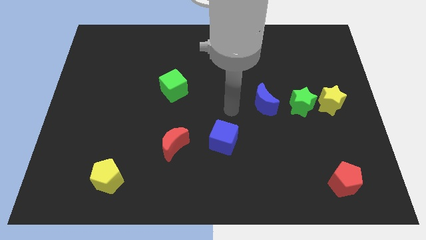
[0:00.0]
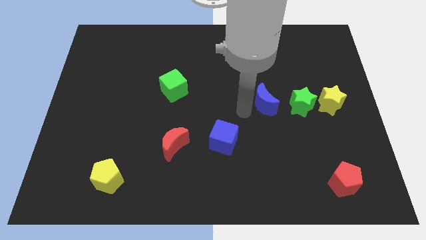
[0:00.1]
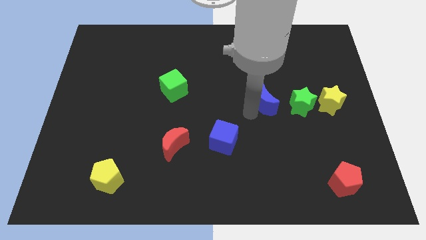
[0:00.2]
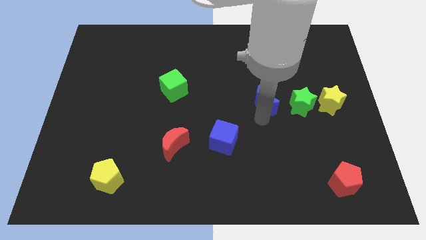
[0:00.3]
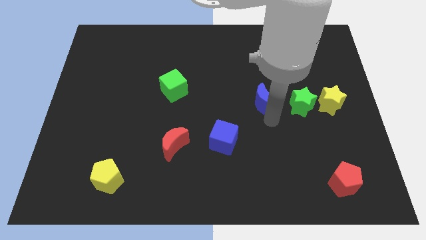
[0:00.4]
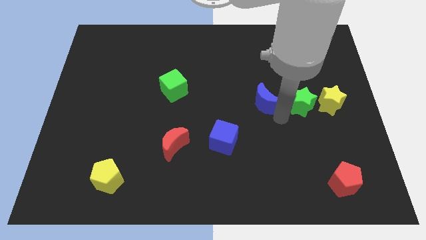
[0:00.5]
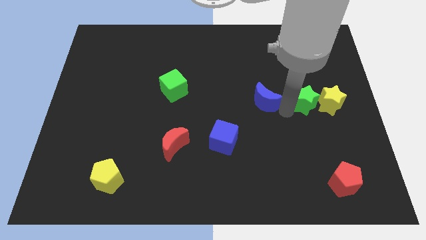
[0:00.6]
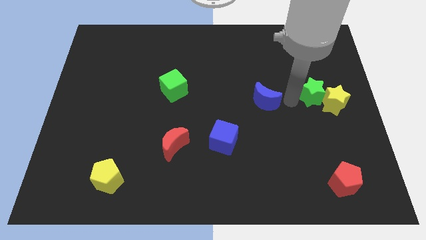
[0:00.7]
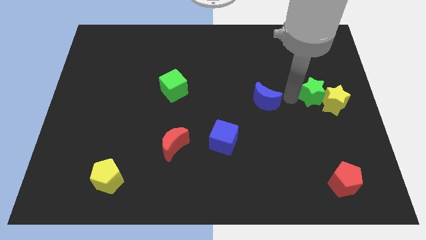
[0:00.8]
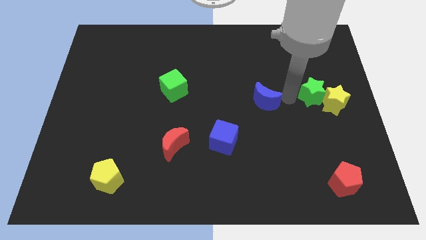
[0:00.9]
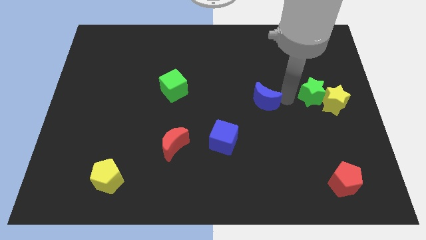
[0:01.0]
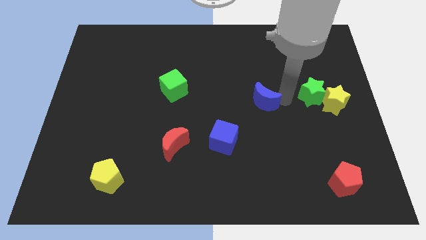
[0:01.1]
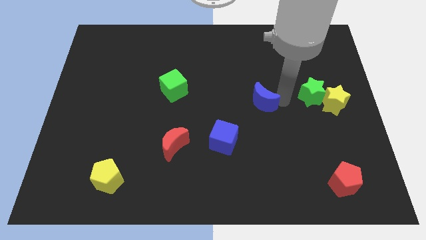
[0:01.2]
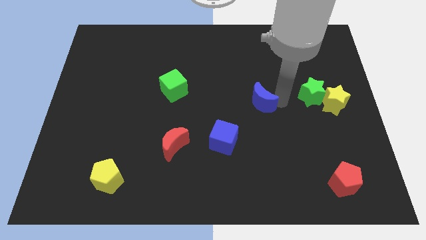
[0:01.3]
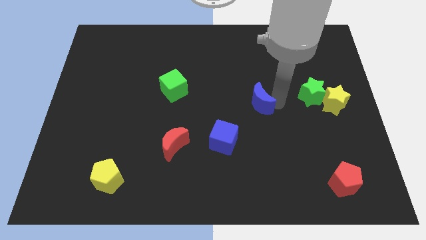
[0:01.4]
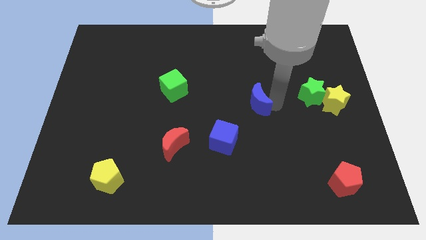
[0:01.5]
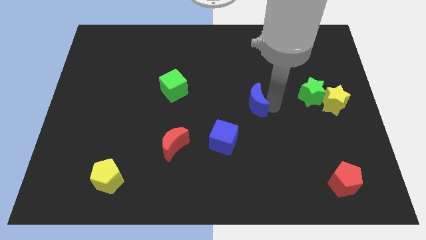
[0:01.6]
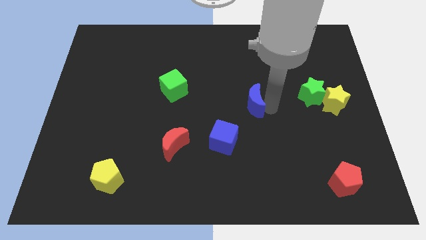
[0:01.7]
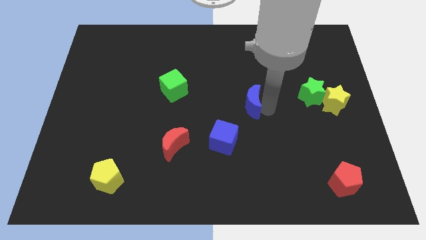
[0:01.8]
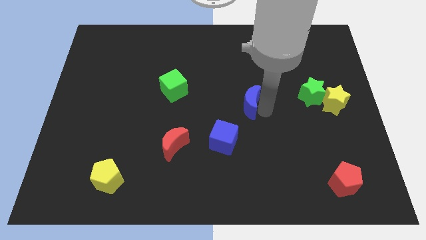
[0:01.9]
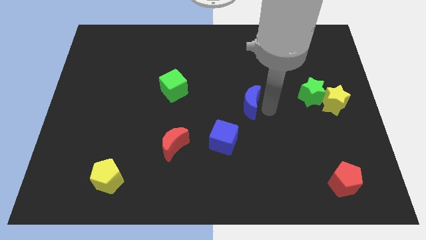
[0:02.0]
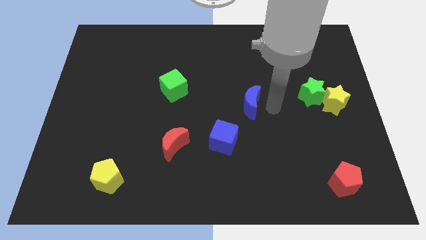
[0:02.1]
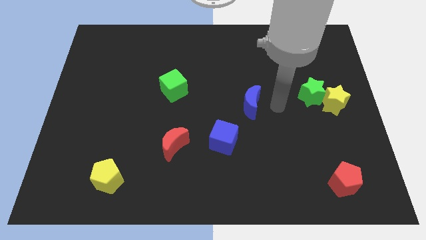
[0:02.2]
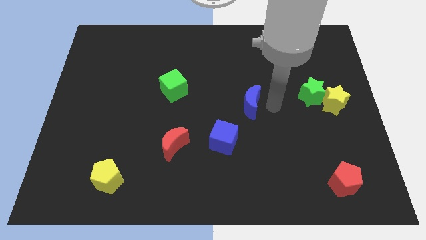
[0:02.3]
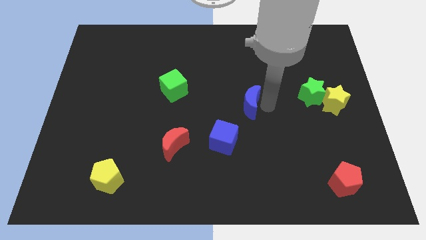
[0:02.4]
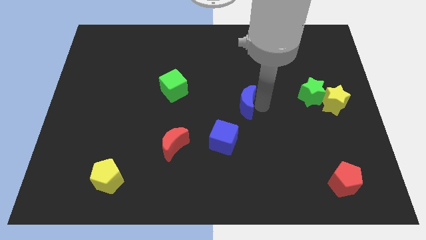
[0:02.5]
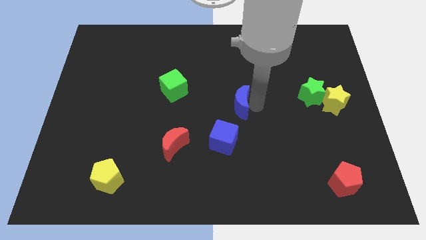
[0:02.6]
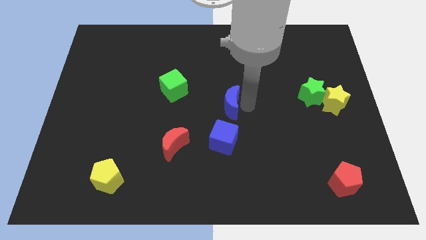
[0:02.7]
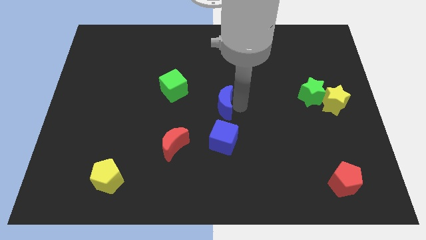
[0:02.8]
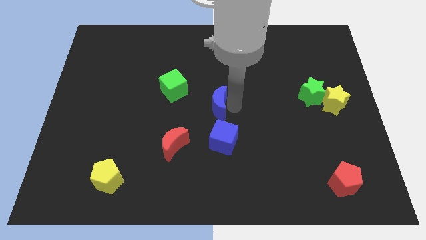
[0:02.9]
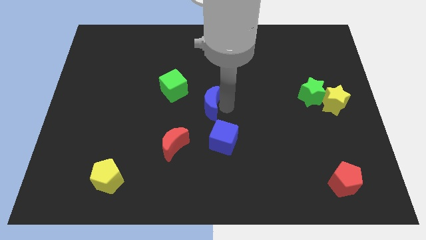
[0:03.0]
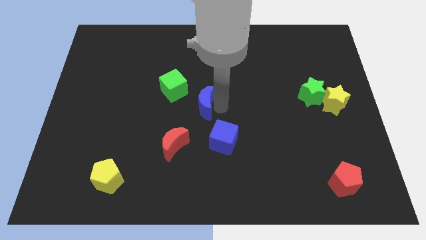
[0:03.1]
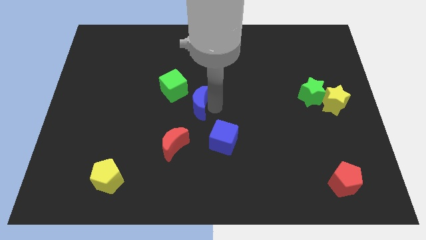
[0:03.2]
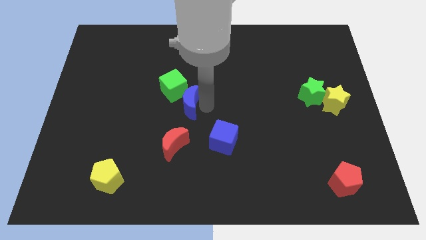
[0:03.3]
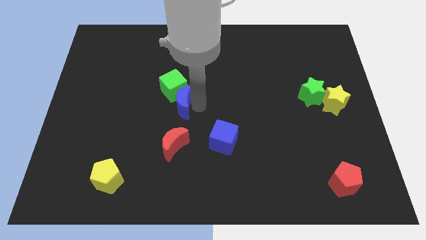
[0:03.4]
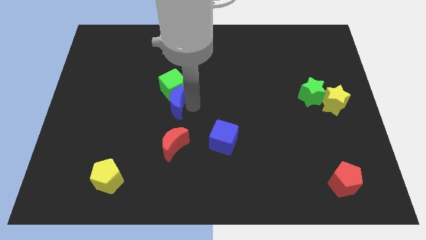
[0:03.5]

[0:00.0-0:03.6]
slide the blue moon left

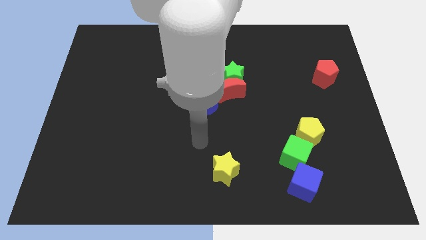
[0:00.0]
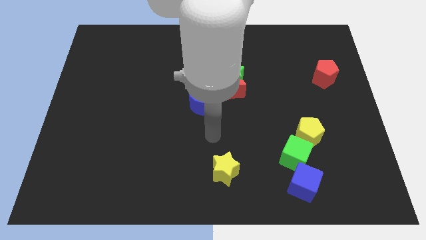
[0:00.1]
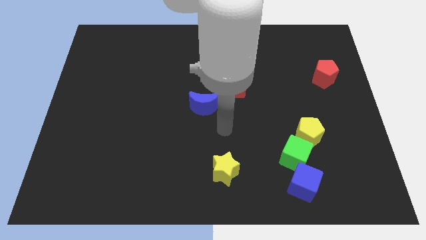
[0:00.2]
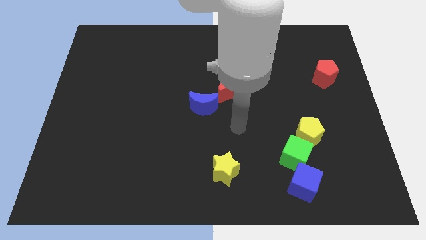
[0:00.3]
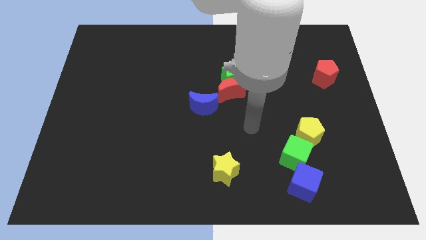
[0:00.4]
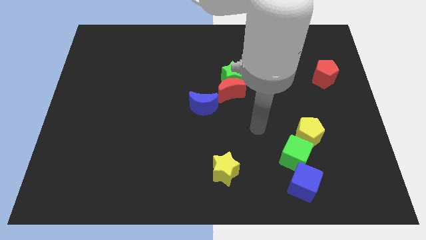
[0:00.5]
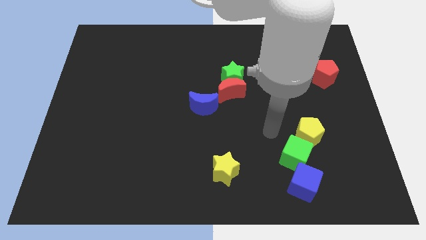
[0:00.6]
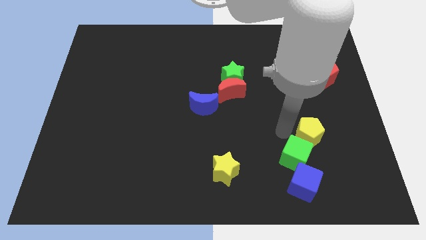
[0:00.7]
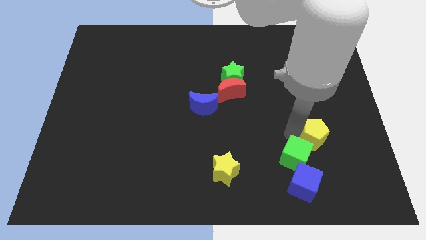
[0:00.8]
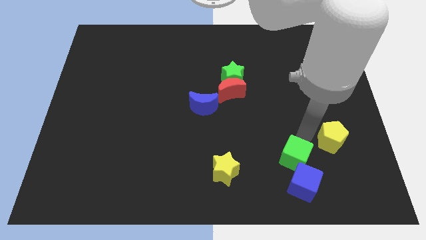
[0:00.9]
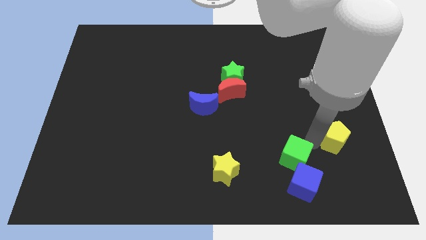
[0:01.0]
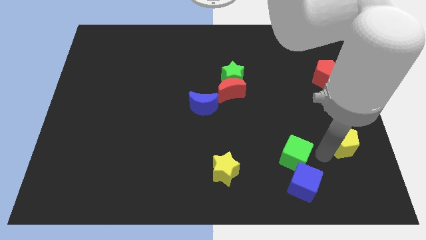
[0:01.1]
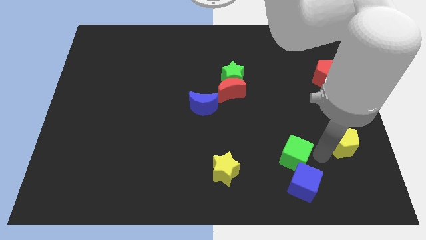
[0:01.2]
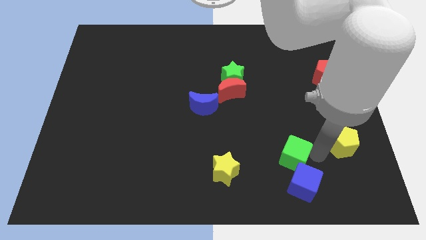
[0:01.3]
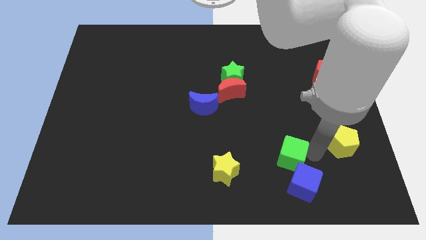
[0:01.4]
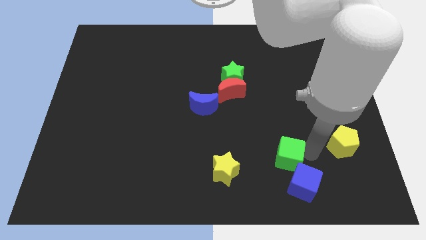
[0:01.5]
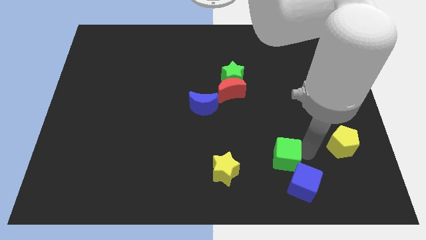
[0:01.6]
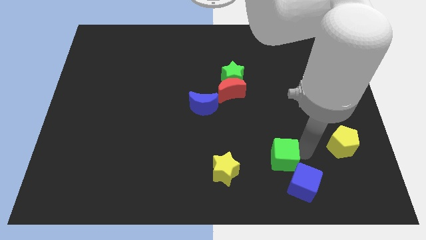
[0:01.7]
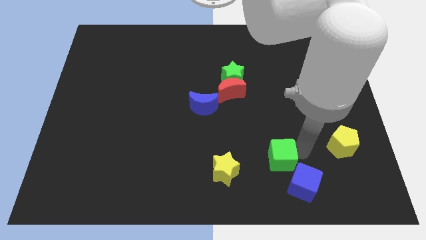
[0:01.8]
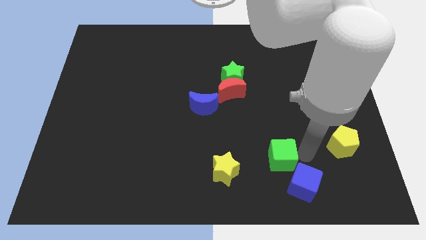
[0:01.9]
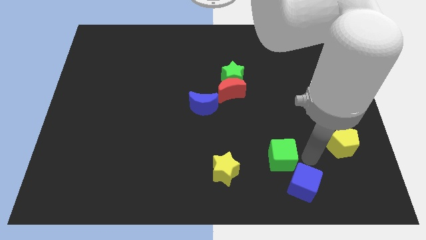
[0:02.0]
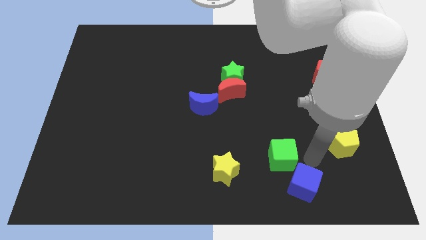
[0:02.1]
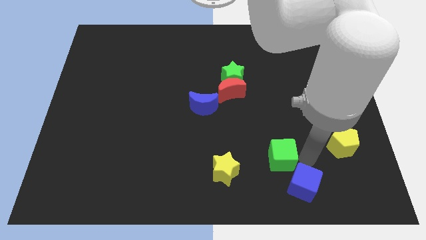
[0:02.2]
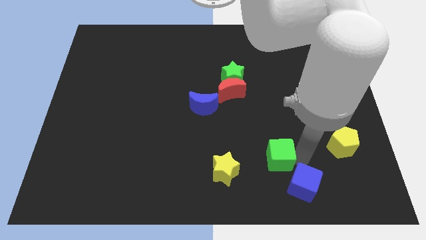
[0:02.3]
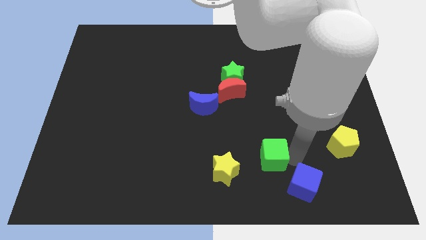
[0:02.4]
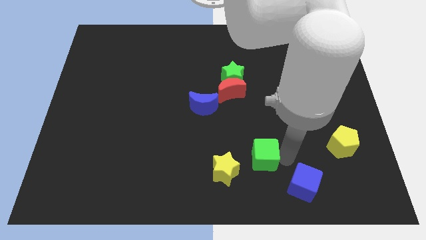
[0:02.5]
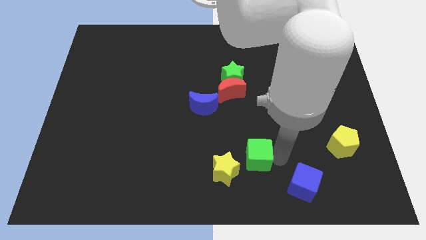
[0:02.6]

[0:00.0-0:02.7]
push the green cube left a little bit

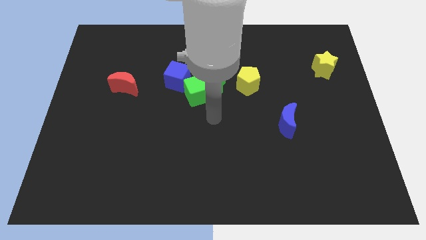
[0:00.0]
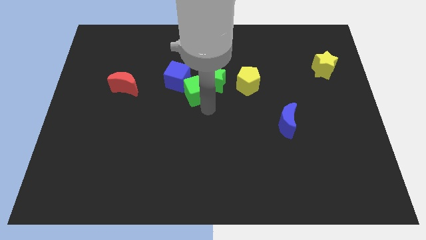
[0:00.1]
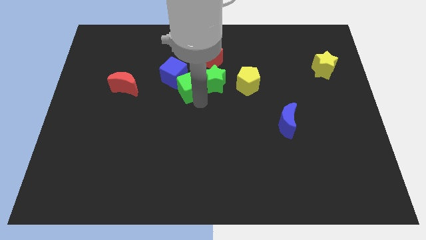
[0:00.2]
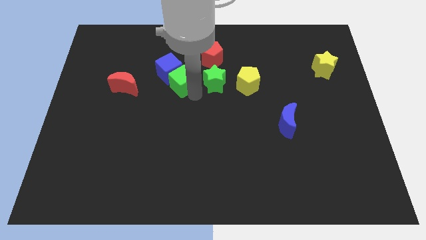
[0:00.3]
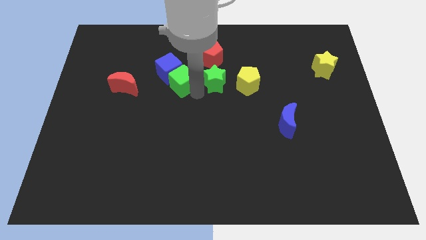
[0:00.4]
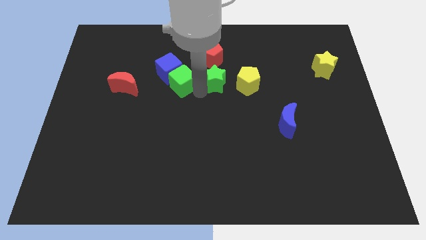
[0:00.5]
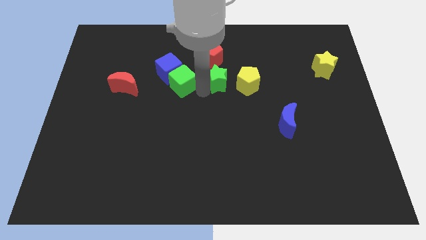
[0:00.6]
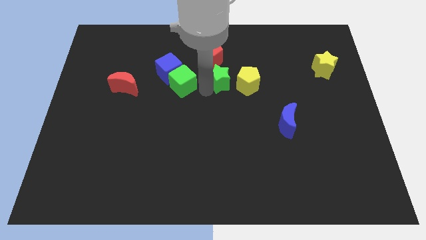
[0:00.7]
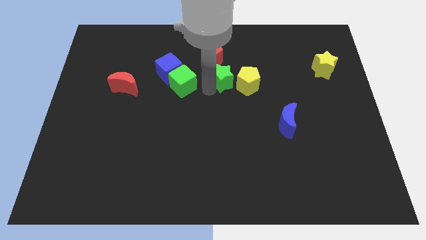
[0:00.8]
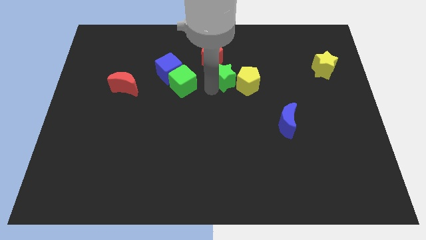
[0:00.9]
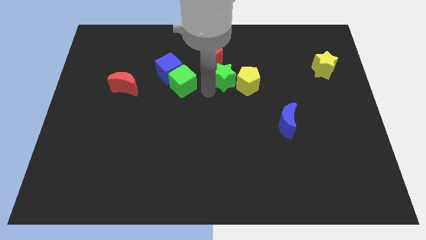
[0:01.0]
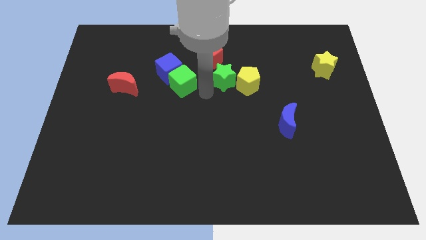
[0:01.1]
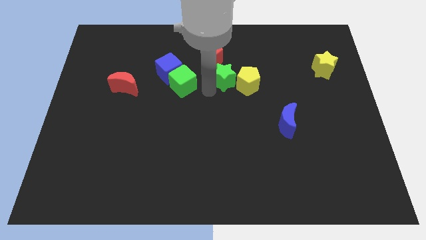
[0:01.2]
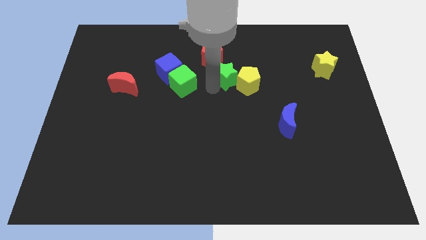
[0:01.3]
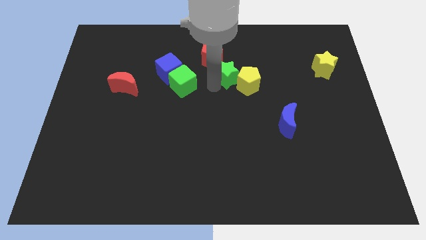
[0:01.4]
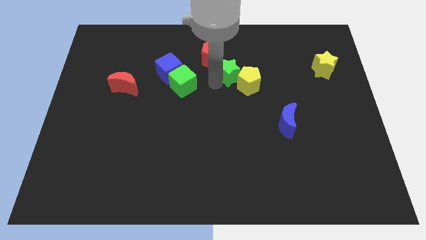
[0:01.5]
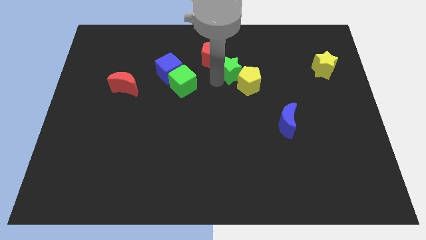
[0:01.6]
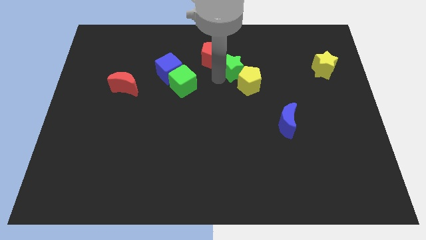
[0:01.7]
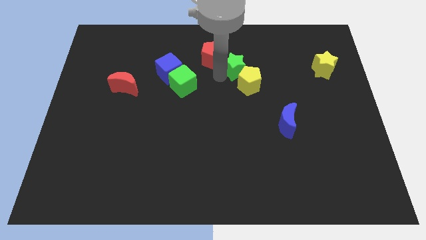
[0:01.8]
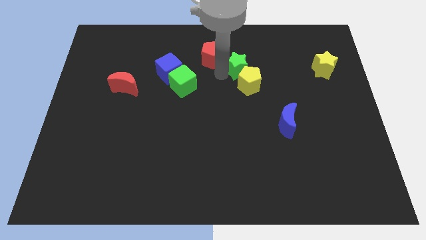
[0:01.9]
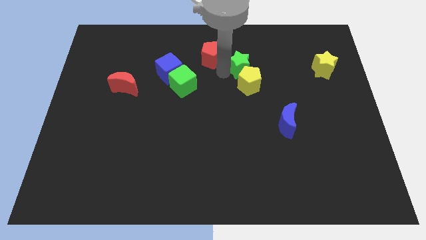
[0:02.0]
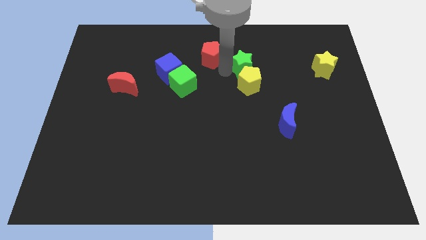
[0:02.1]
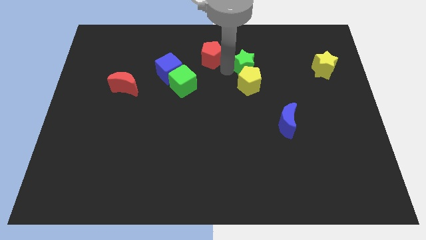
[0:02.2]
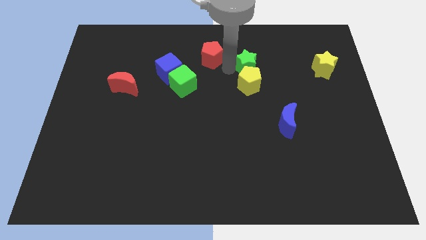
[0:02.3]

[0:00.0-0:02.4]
move the green star to the right somewhat

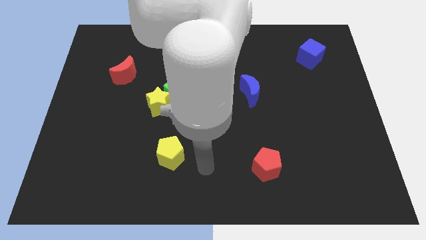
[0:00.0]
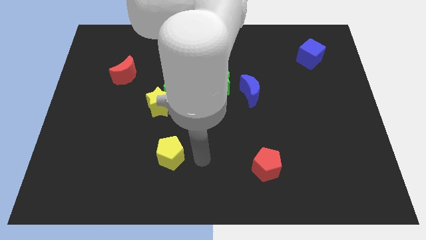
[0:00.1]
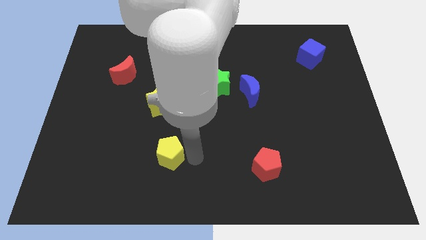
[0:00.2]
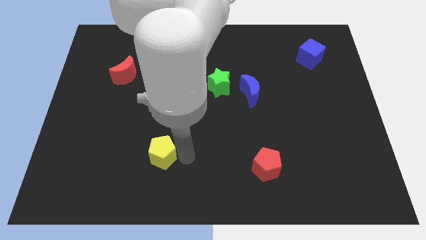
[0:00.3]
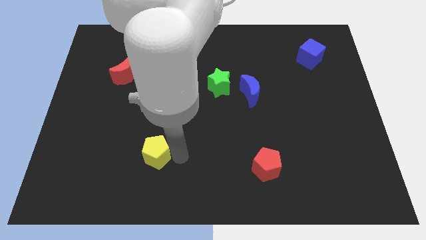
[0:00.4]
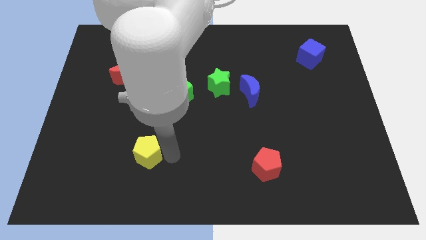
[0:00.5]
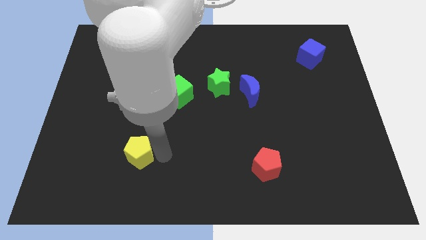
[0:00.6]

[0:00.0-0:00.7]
move the yellow pentagon a little to the left
